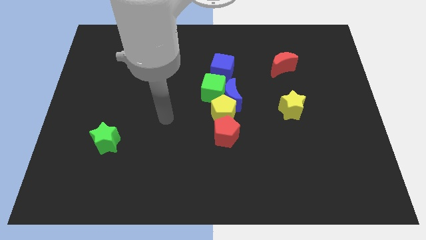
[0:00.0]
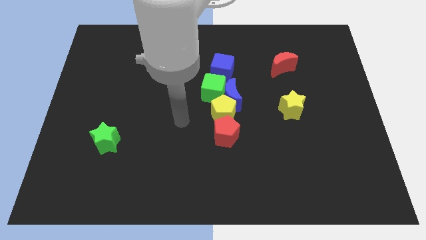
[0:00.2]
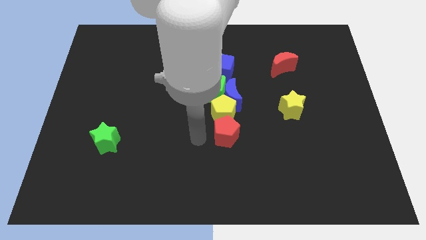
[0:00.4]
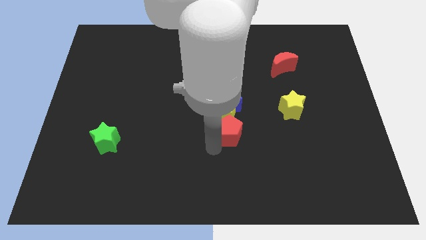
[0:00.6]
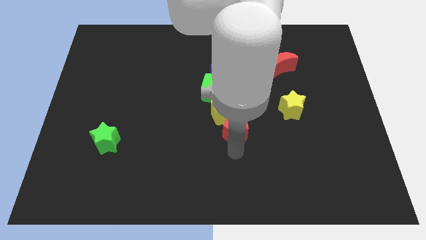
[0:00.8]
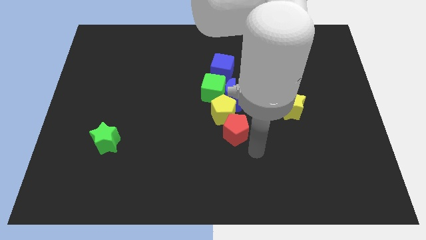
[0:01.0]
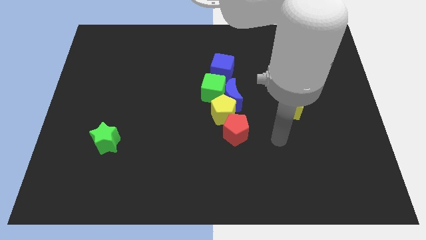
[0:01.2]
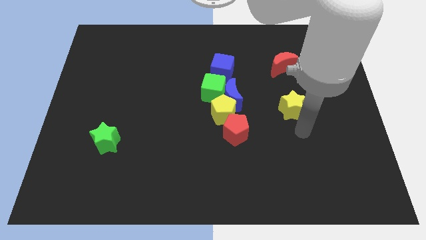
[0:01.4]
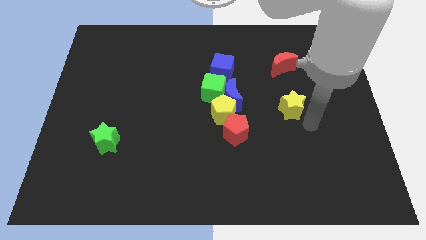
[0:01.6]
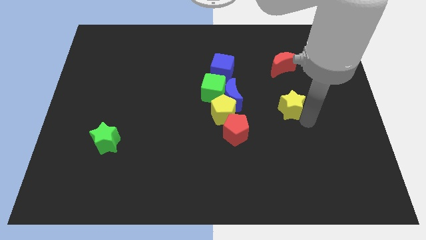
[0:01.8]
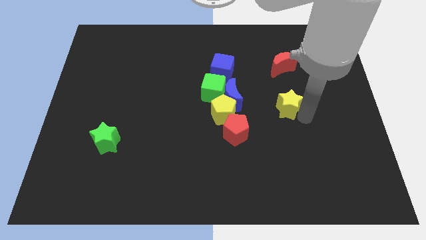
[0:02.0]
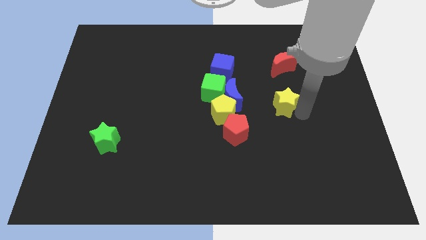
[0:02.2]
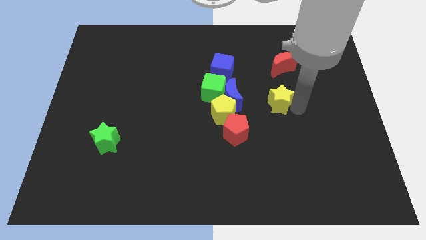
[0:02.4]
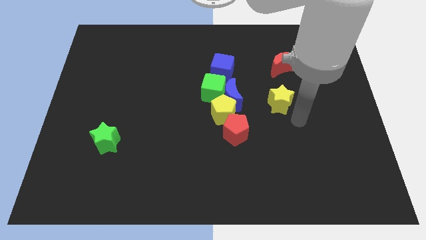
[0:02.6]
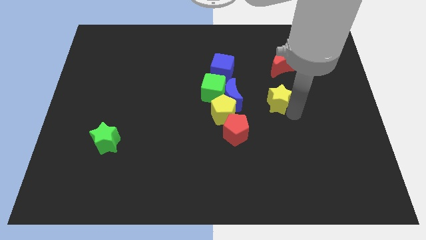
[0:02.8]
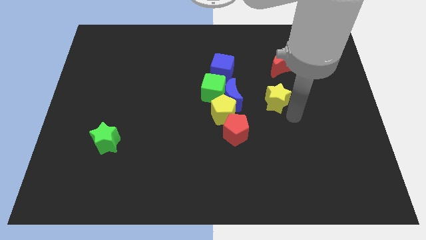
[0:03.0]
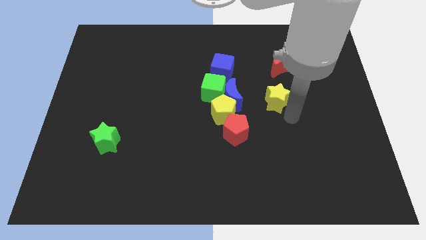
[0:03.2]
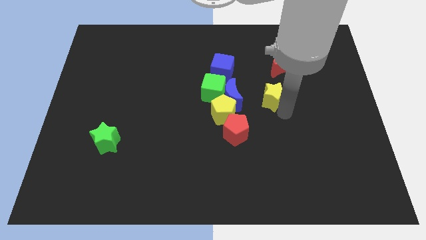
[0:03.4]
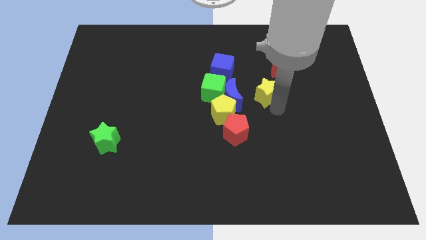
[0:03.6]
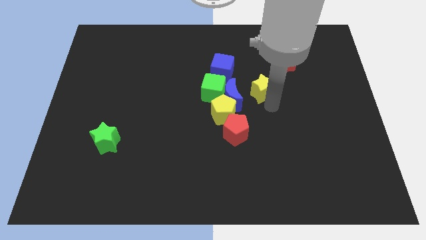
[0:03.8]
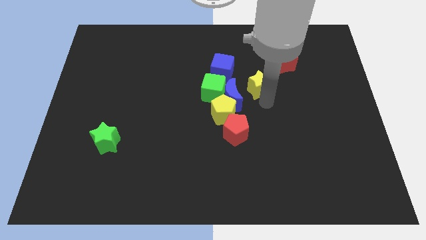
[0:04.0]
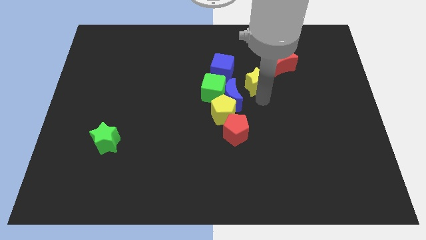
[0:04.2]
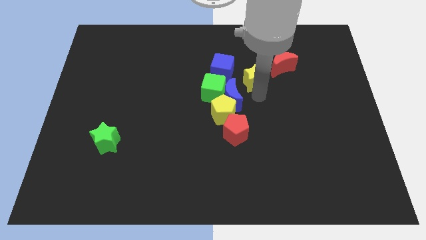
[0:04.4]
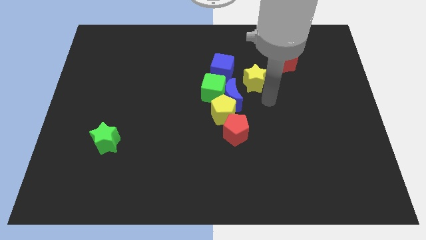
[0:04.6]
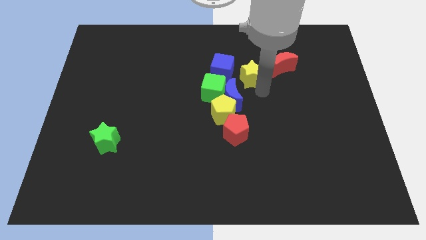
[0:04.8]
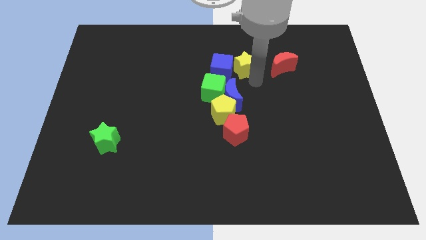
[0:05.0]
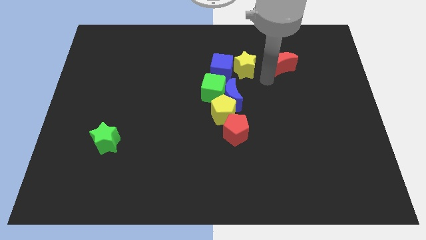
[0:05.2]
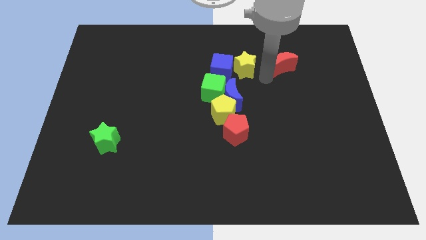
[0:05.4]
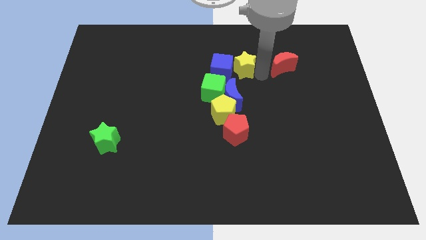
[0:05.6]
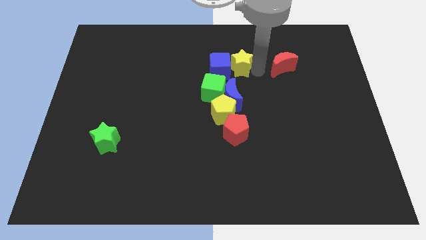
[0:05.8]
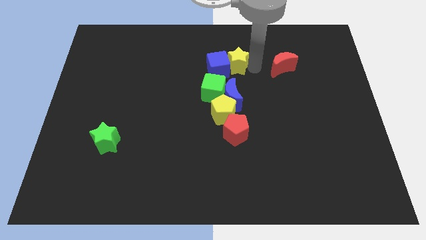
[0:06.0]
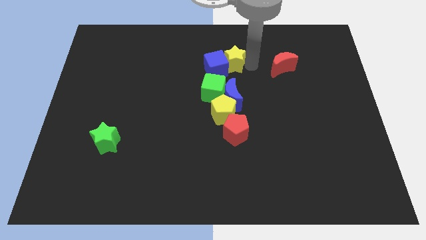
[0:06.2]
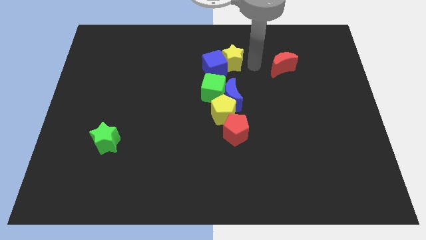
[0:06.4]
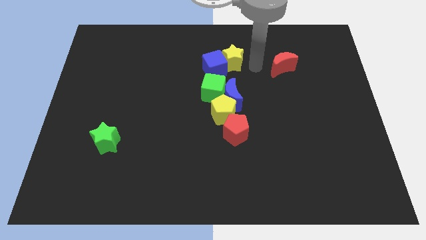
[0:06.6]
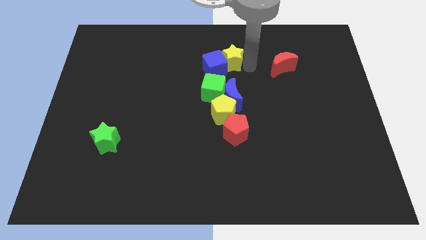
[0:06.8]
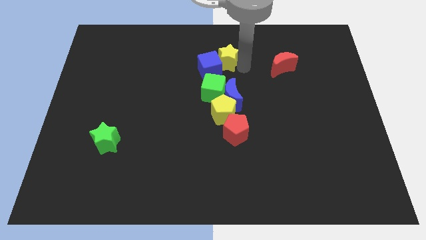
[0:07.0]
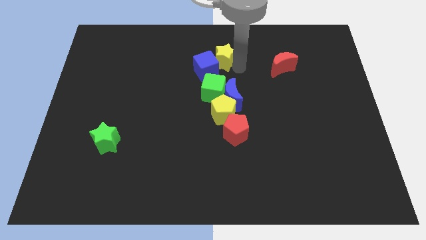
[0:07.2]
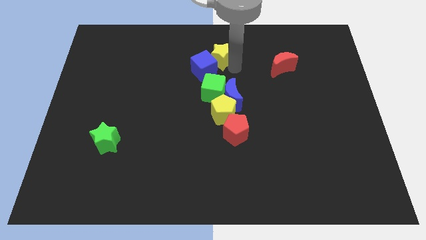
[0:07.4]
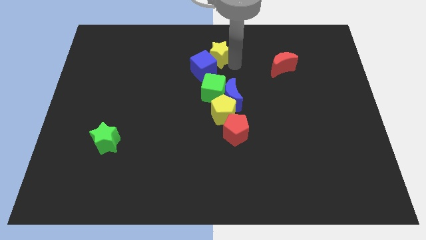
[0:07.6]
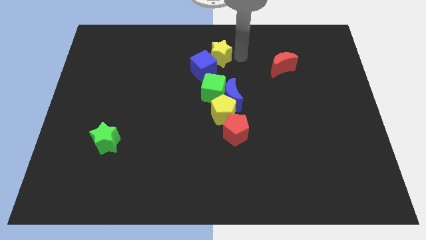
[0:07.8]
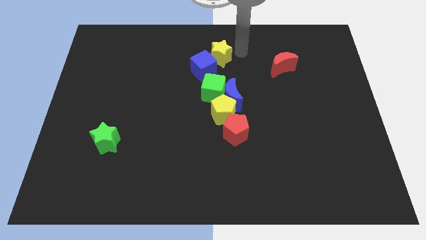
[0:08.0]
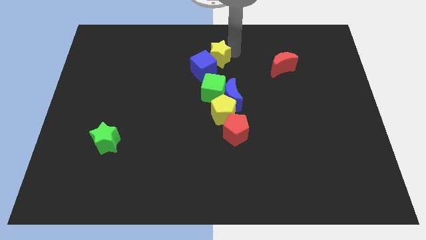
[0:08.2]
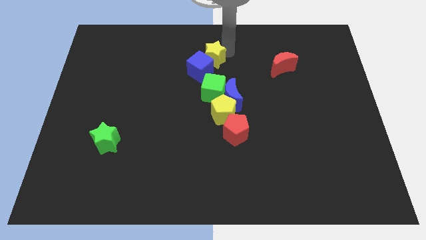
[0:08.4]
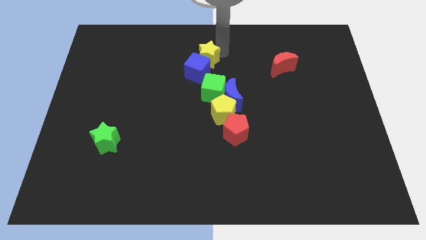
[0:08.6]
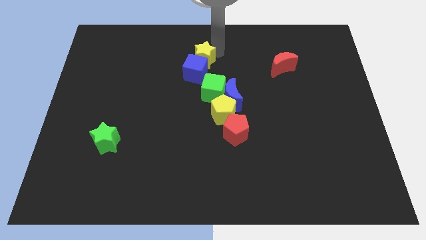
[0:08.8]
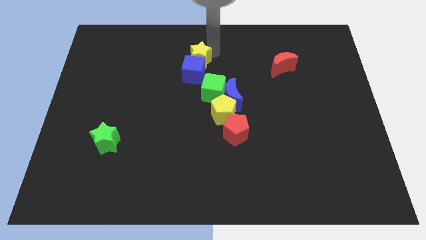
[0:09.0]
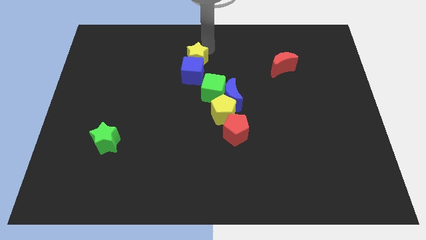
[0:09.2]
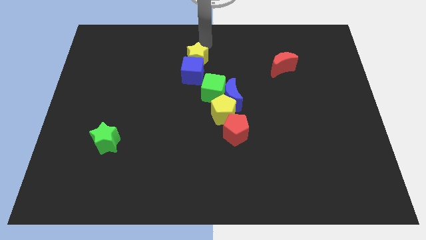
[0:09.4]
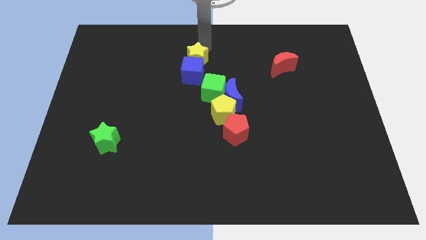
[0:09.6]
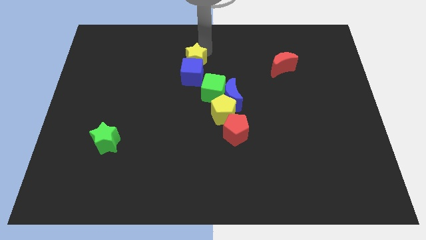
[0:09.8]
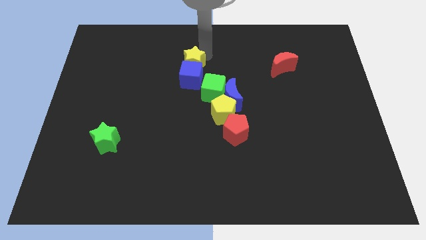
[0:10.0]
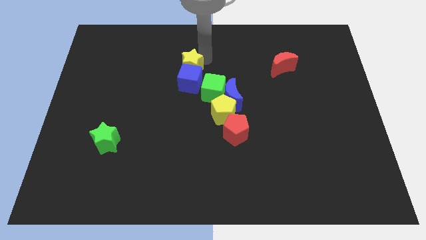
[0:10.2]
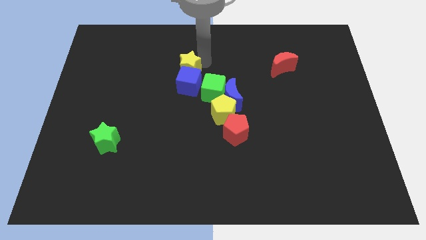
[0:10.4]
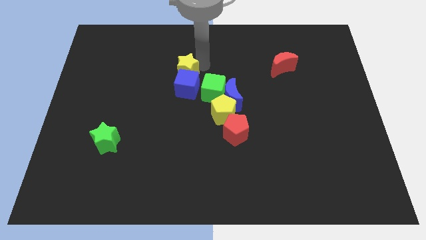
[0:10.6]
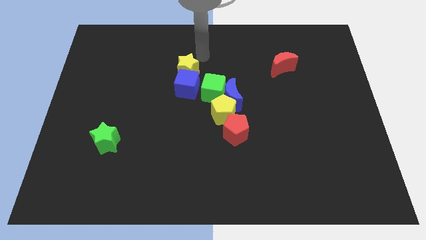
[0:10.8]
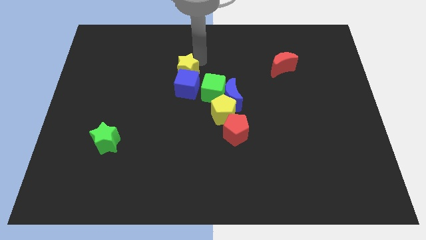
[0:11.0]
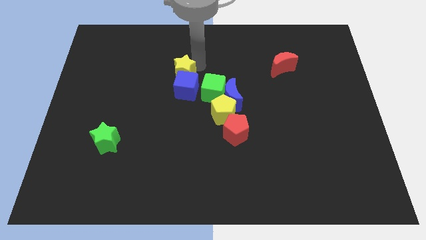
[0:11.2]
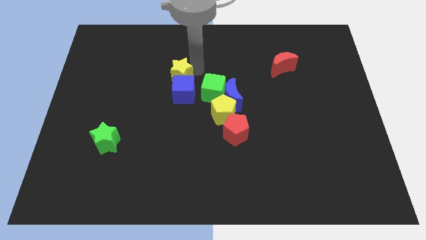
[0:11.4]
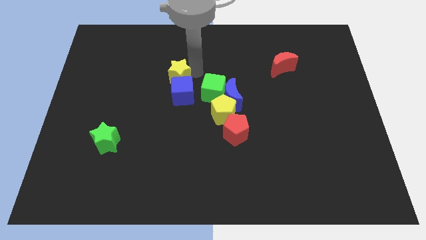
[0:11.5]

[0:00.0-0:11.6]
push the yellow star to the left side of the green cube

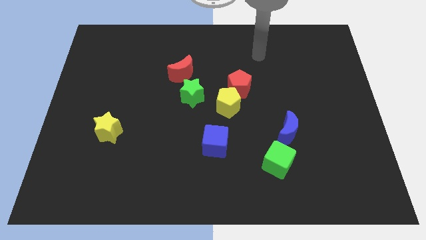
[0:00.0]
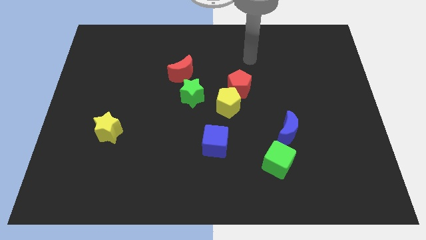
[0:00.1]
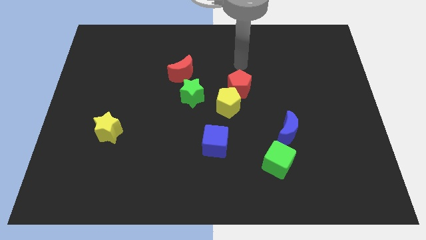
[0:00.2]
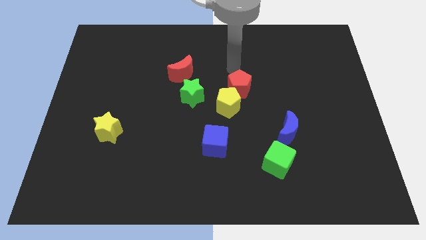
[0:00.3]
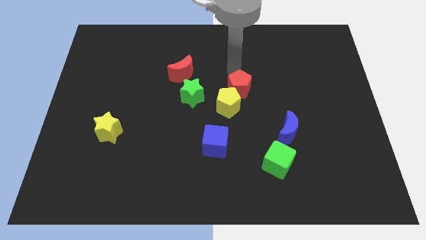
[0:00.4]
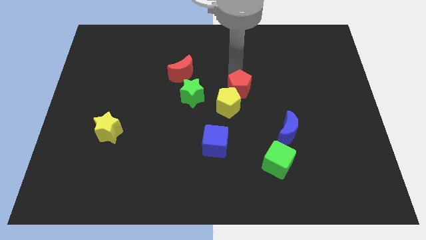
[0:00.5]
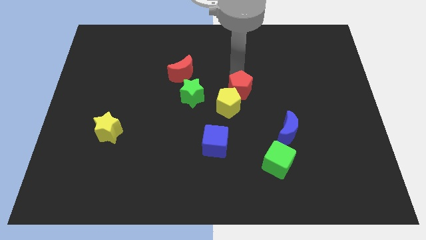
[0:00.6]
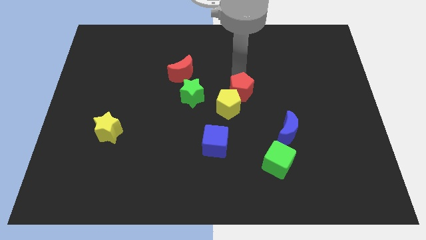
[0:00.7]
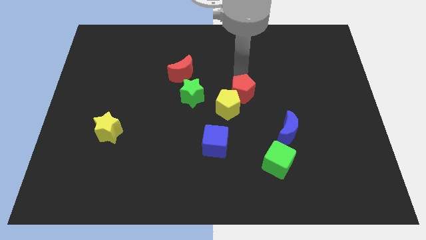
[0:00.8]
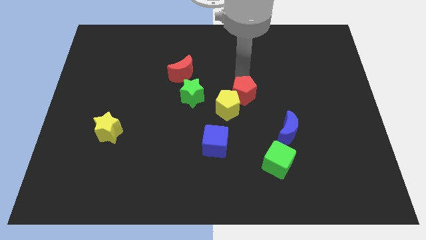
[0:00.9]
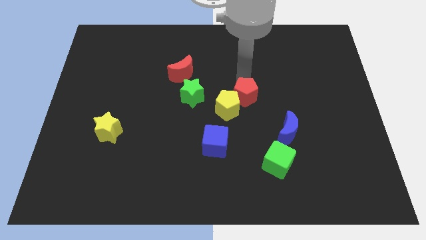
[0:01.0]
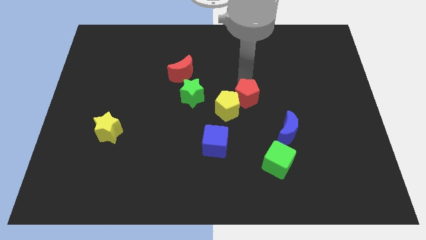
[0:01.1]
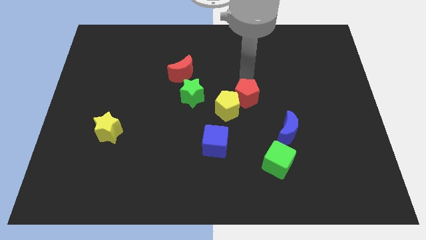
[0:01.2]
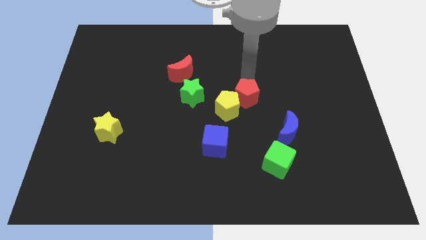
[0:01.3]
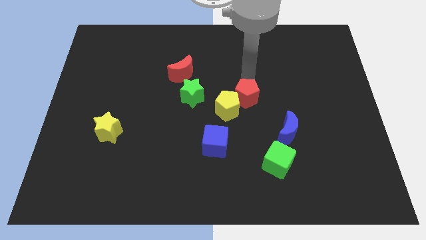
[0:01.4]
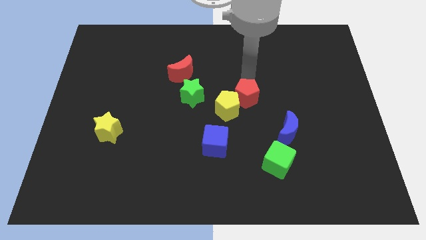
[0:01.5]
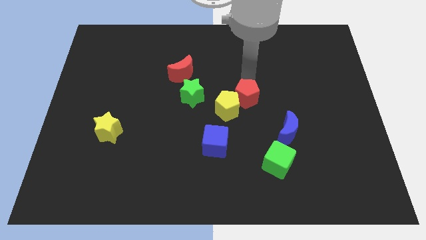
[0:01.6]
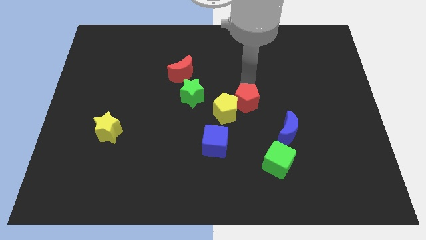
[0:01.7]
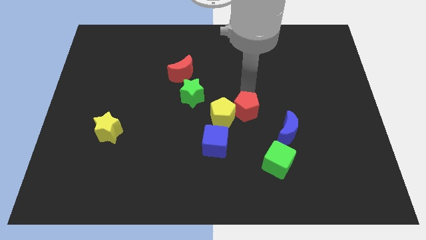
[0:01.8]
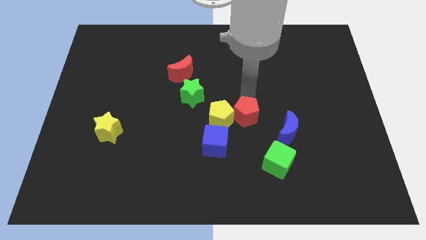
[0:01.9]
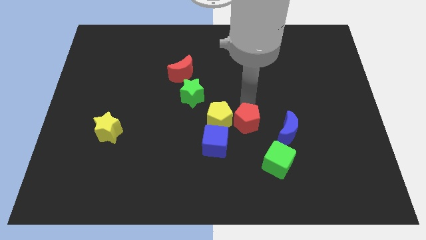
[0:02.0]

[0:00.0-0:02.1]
move the red pentagon to the left side of the blue moon
